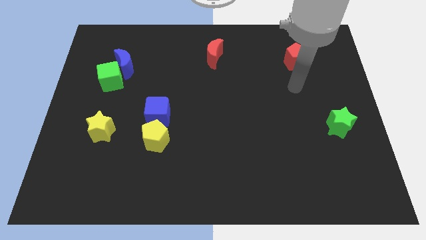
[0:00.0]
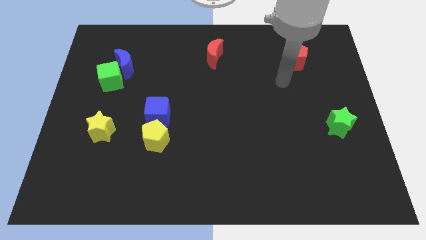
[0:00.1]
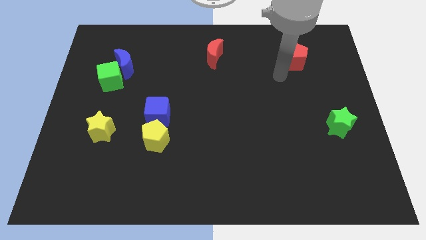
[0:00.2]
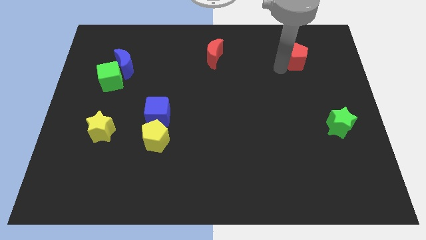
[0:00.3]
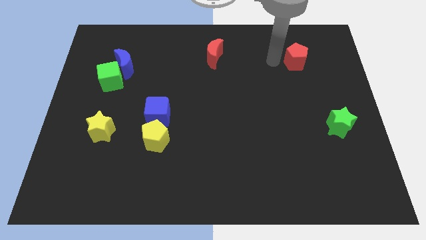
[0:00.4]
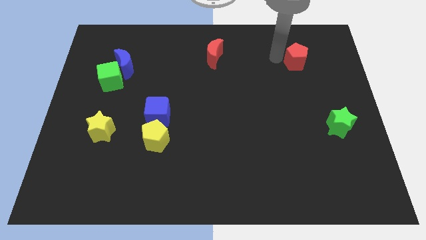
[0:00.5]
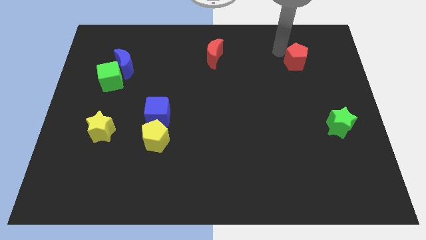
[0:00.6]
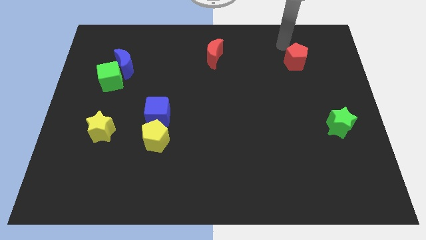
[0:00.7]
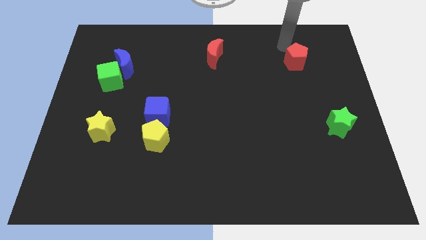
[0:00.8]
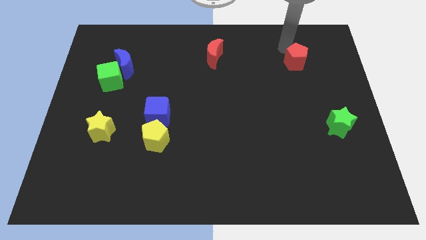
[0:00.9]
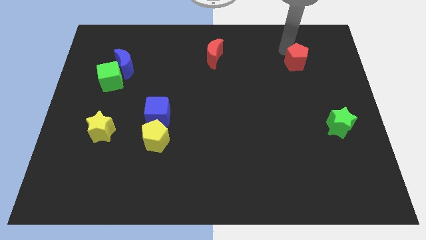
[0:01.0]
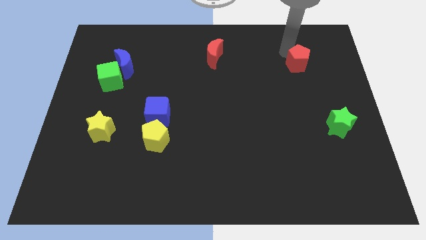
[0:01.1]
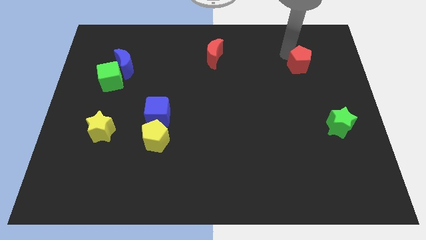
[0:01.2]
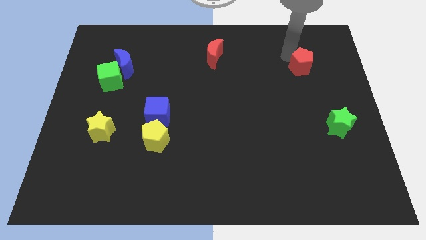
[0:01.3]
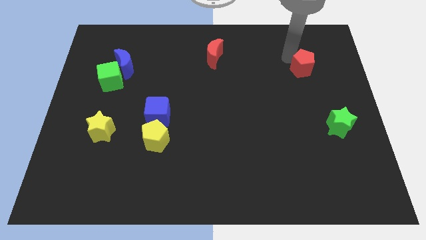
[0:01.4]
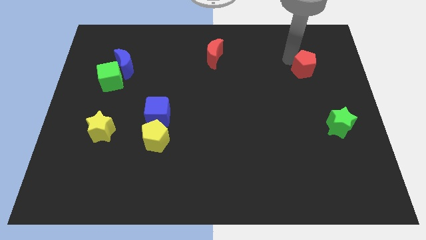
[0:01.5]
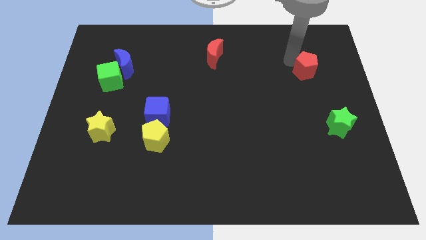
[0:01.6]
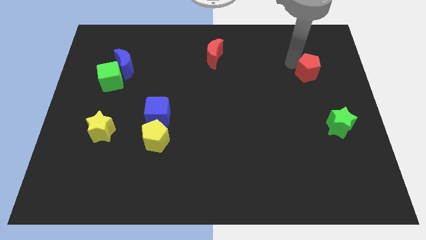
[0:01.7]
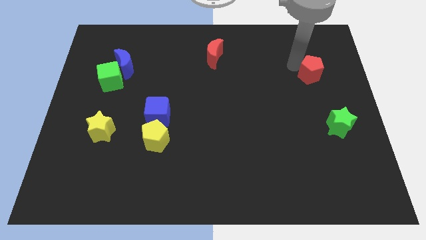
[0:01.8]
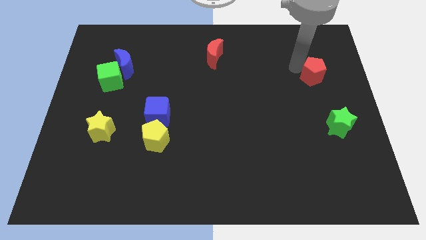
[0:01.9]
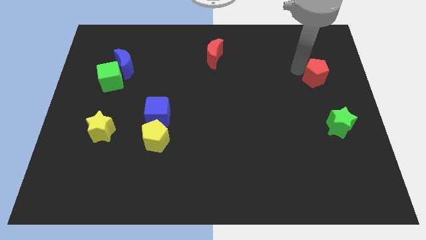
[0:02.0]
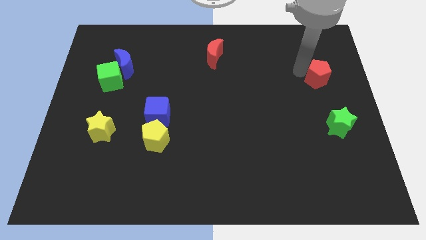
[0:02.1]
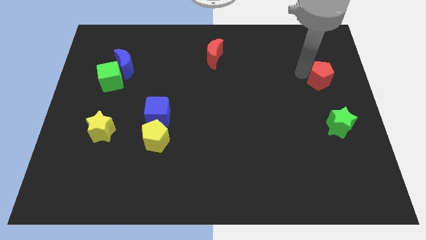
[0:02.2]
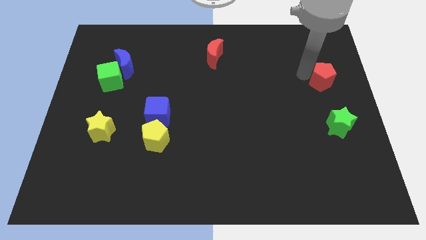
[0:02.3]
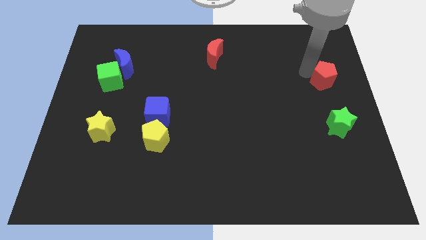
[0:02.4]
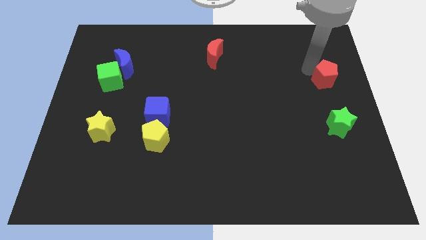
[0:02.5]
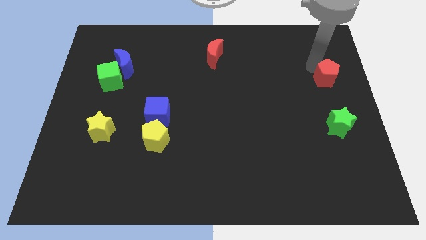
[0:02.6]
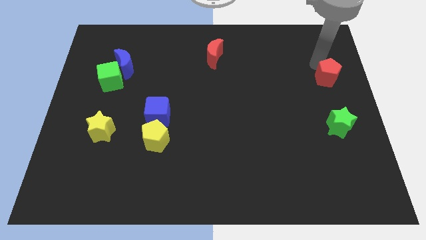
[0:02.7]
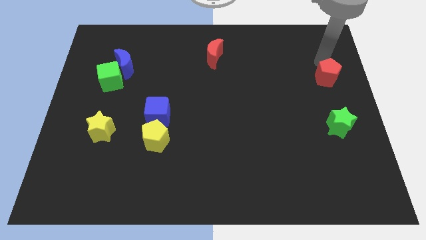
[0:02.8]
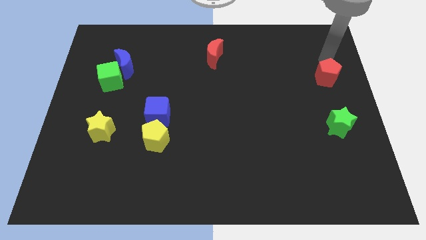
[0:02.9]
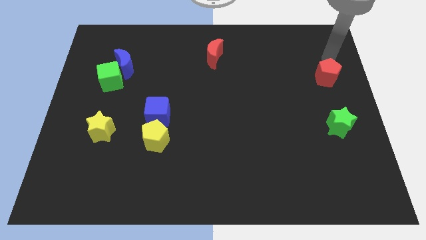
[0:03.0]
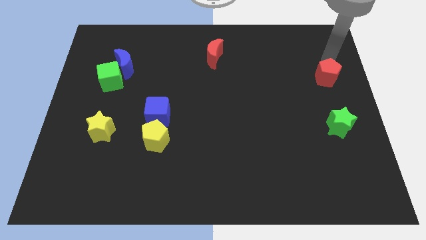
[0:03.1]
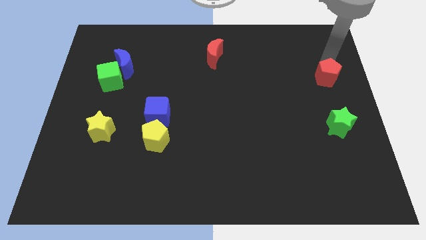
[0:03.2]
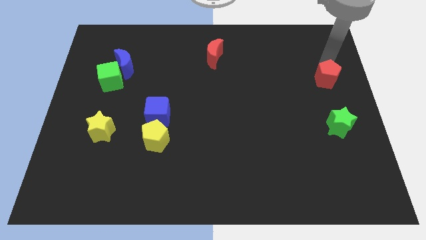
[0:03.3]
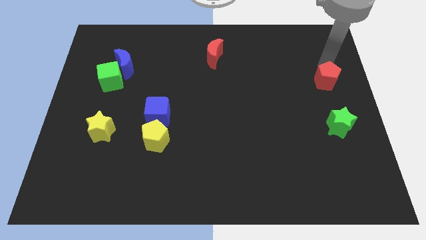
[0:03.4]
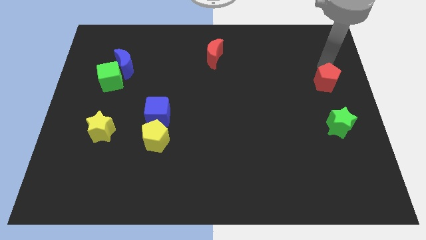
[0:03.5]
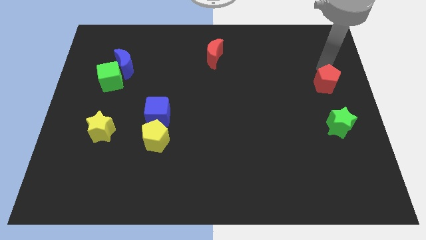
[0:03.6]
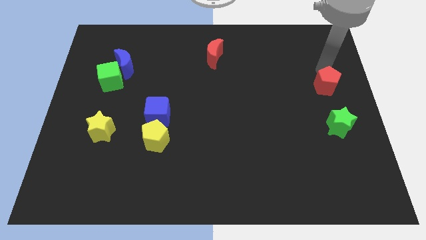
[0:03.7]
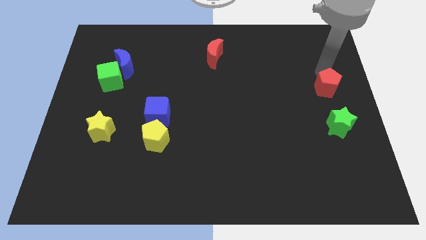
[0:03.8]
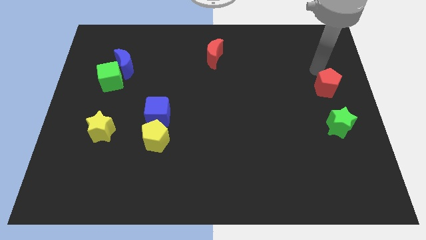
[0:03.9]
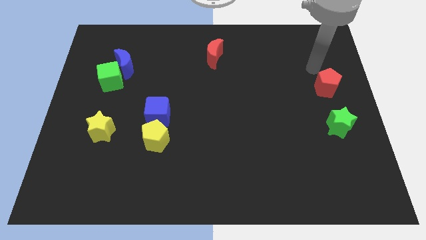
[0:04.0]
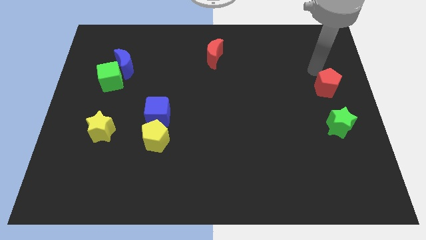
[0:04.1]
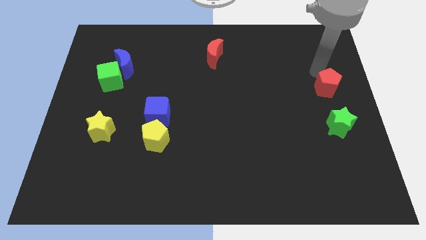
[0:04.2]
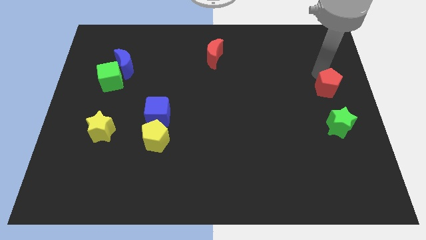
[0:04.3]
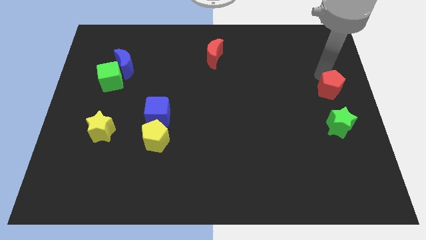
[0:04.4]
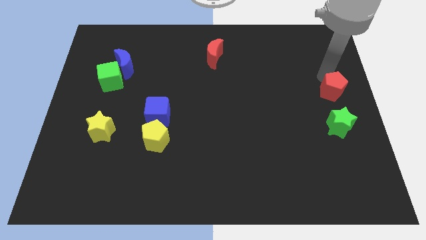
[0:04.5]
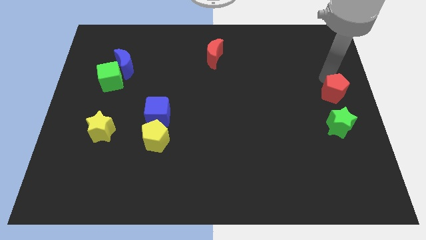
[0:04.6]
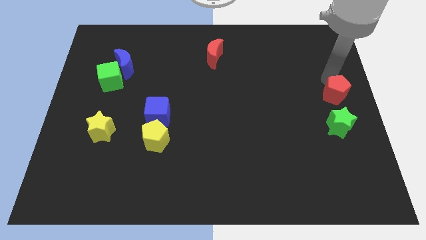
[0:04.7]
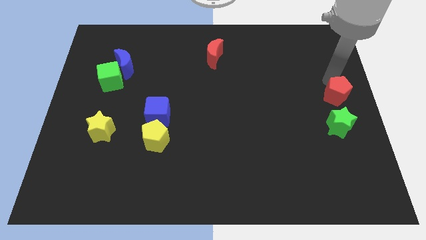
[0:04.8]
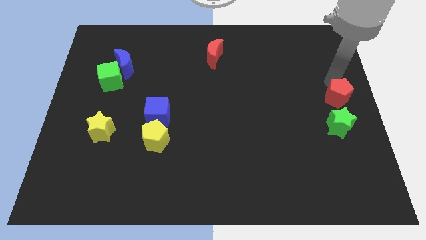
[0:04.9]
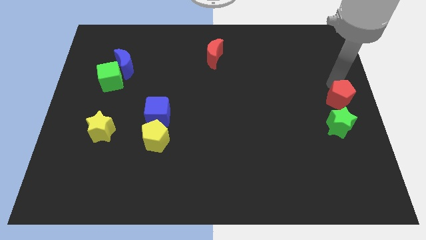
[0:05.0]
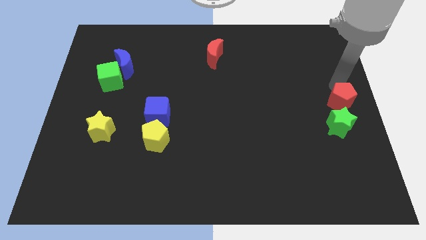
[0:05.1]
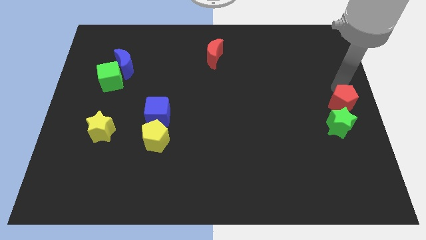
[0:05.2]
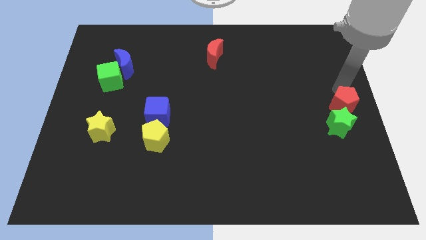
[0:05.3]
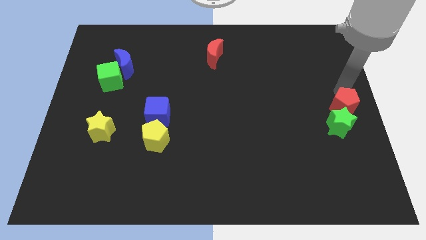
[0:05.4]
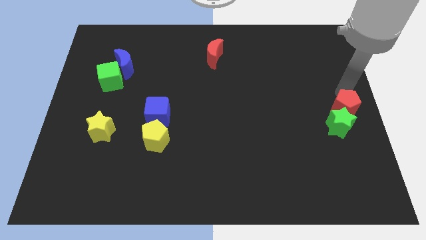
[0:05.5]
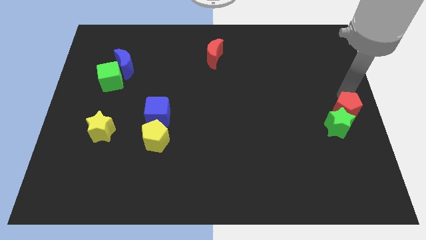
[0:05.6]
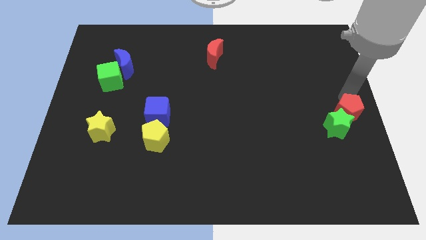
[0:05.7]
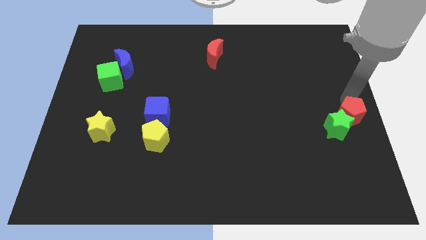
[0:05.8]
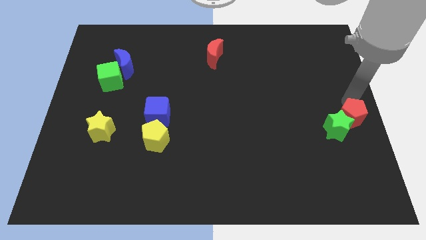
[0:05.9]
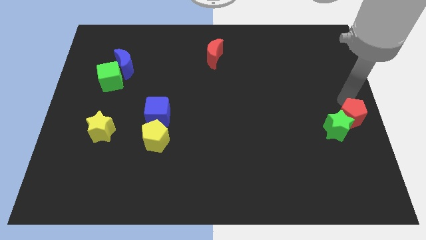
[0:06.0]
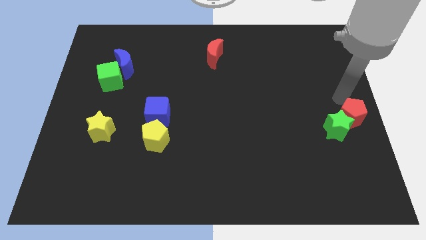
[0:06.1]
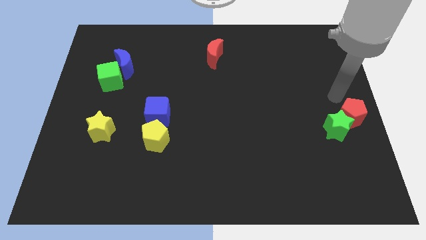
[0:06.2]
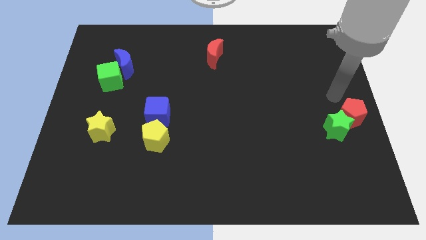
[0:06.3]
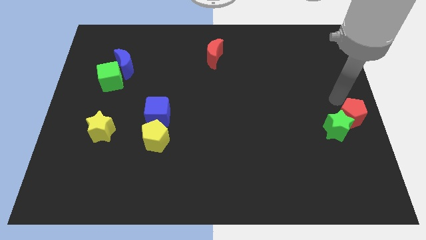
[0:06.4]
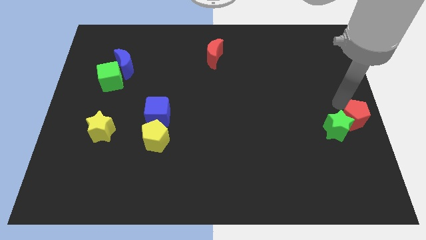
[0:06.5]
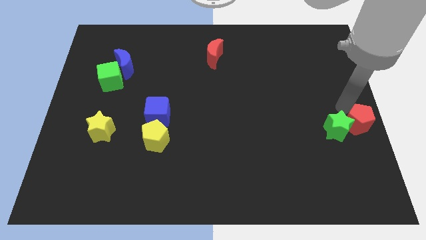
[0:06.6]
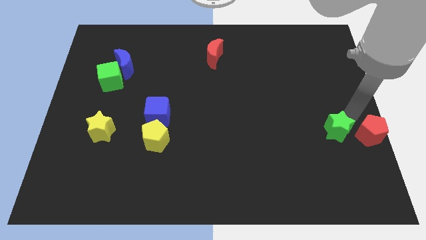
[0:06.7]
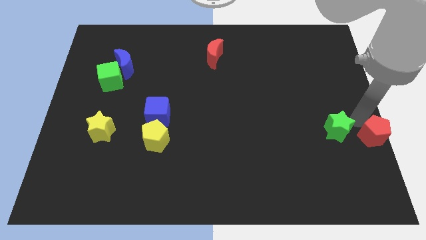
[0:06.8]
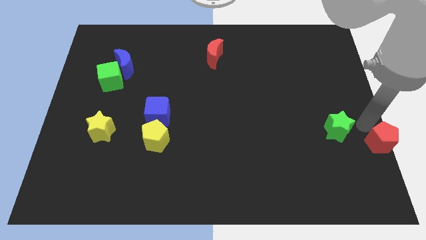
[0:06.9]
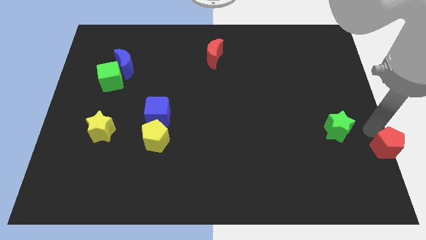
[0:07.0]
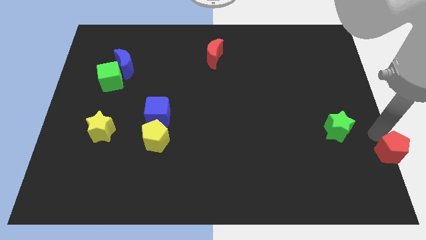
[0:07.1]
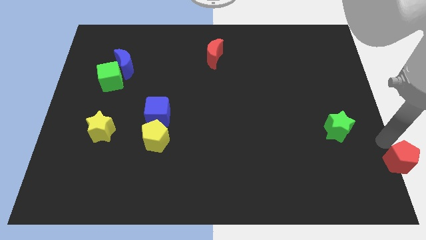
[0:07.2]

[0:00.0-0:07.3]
slide the red pentagon to the bottom right
